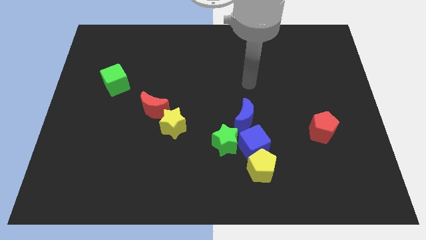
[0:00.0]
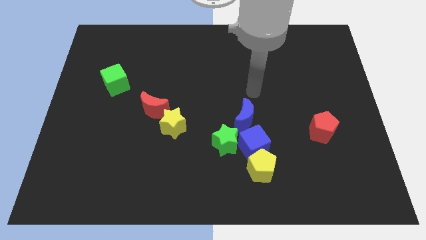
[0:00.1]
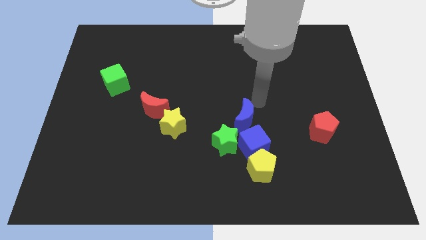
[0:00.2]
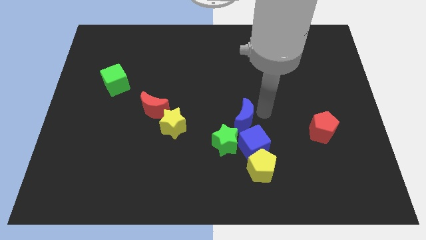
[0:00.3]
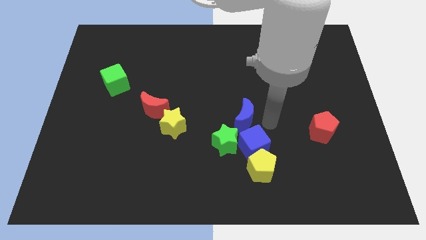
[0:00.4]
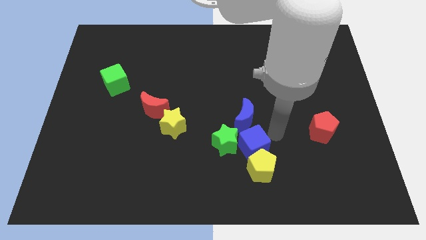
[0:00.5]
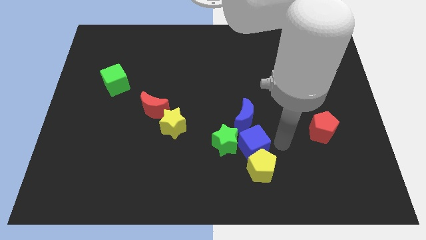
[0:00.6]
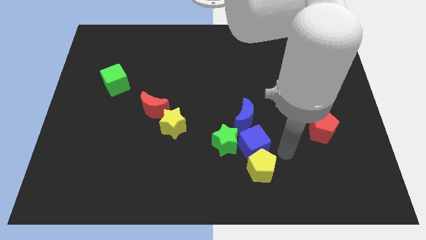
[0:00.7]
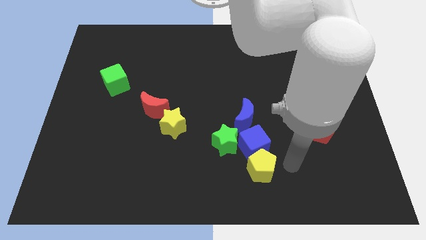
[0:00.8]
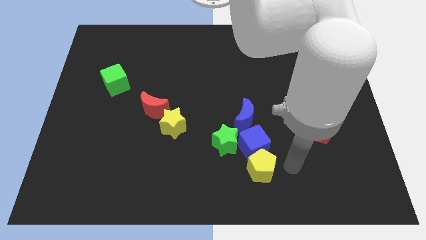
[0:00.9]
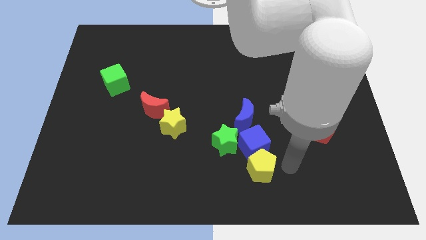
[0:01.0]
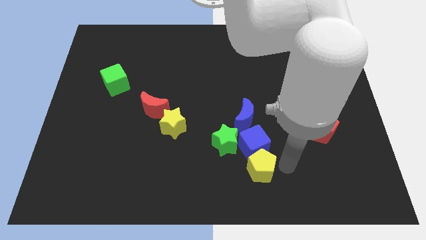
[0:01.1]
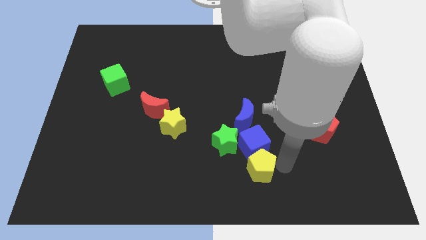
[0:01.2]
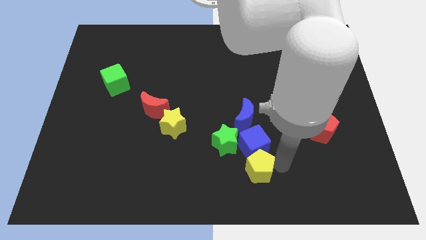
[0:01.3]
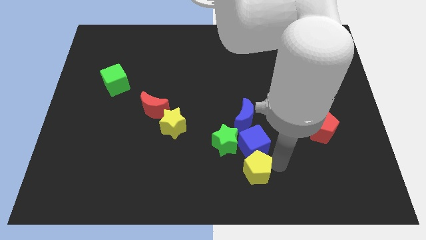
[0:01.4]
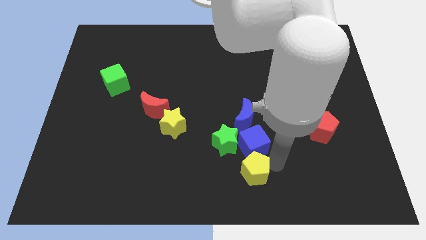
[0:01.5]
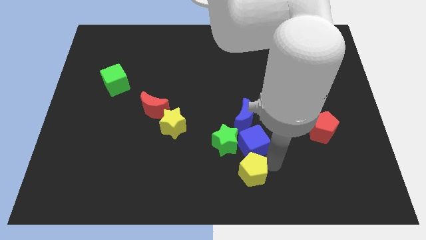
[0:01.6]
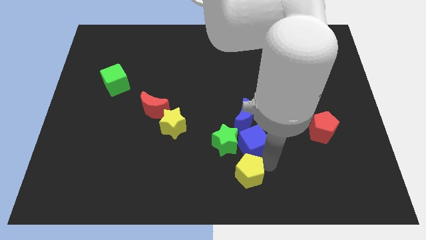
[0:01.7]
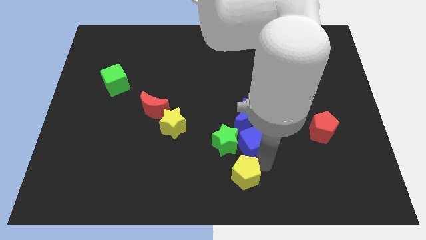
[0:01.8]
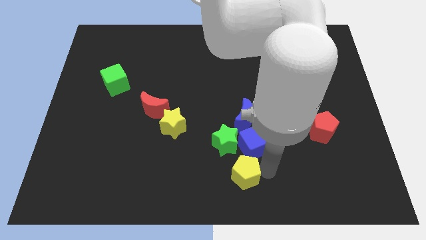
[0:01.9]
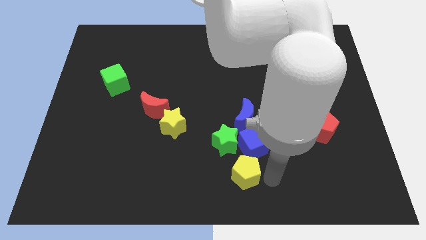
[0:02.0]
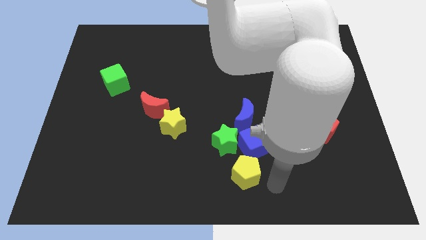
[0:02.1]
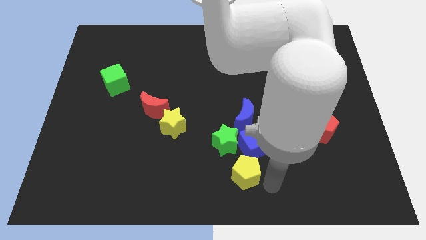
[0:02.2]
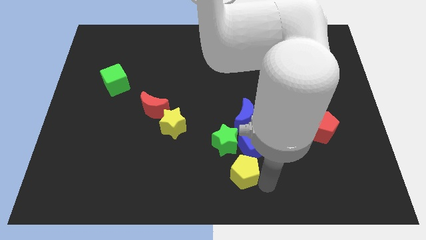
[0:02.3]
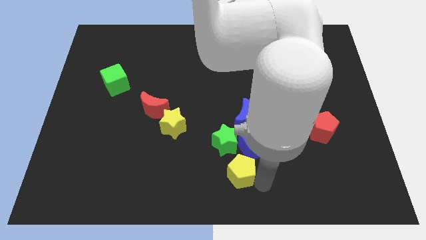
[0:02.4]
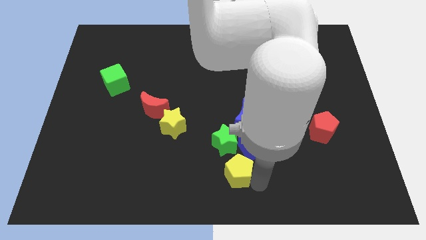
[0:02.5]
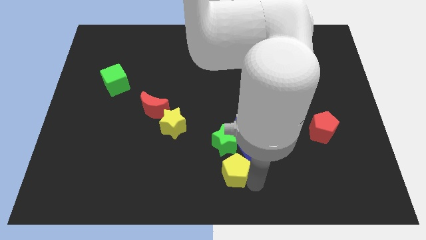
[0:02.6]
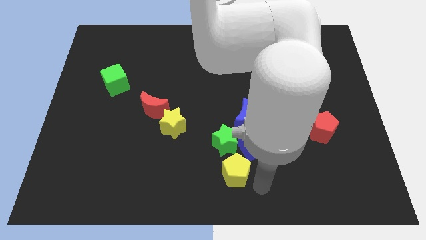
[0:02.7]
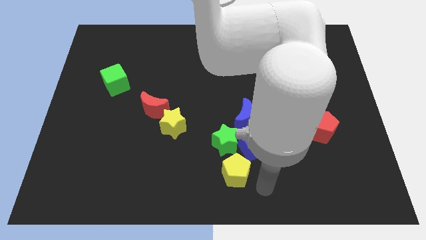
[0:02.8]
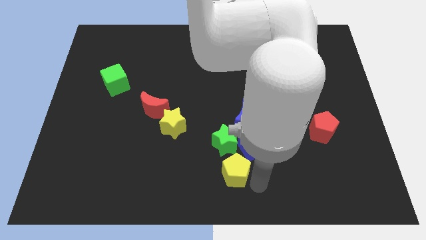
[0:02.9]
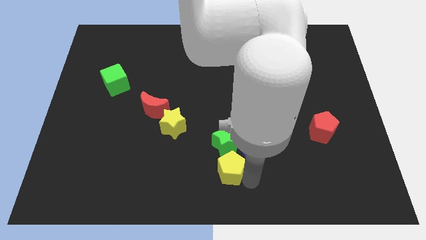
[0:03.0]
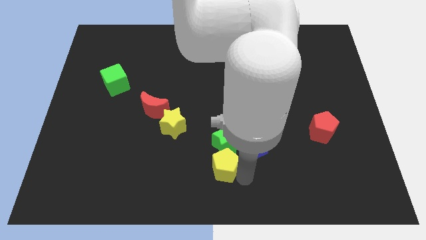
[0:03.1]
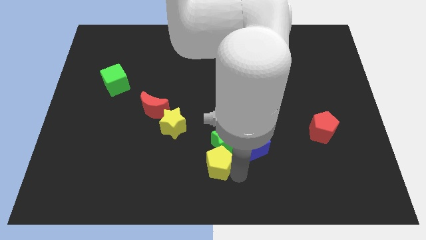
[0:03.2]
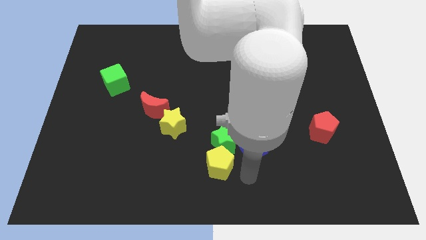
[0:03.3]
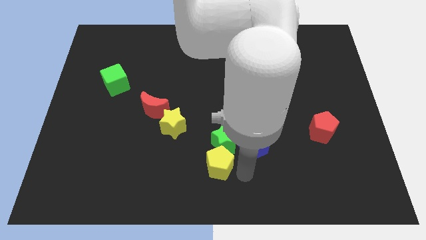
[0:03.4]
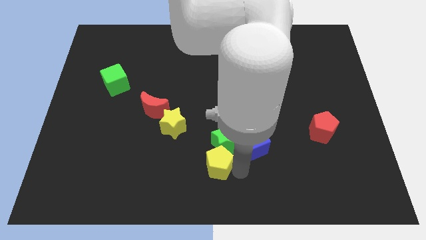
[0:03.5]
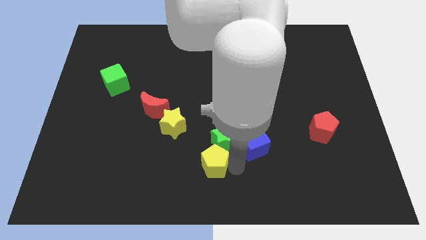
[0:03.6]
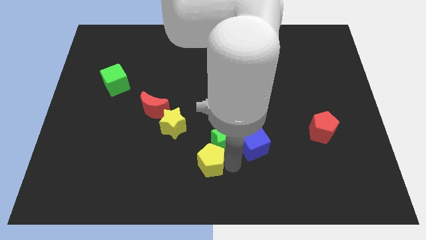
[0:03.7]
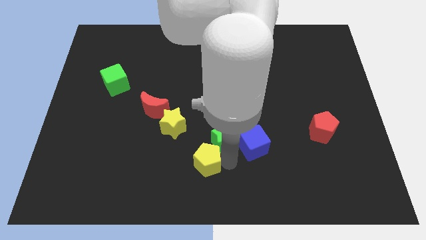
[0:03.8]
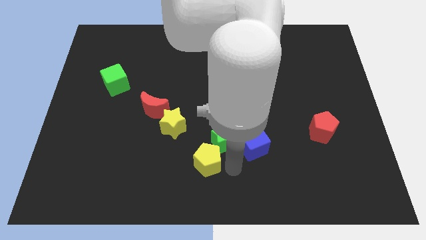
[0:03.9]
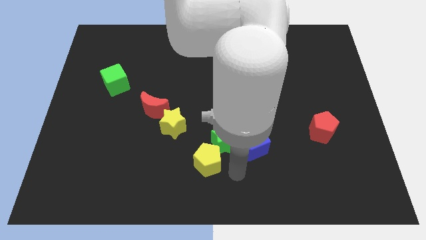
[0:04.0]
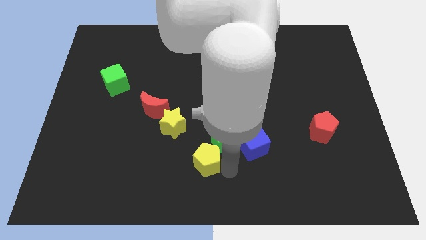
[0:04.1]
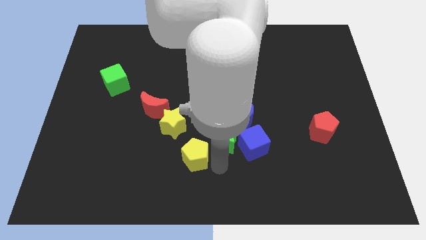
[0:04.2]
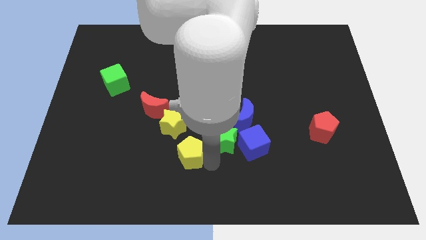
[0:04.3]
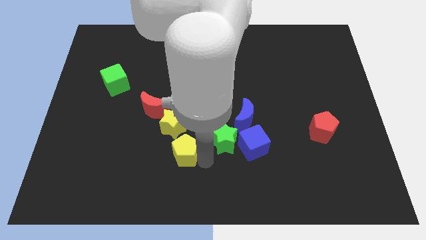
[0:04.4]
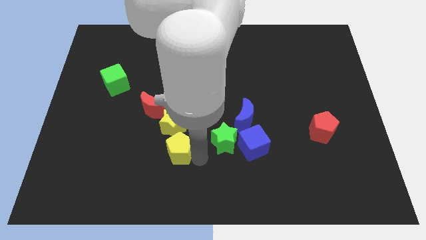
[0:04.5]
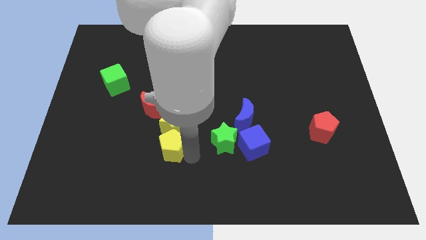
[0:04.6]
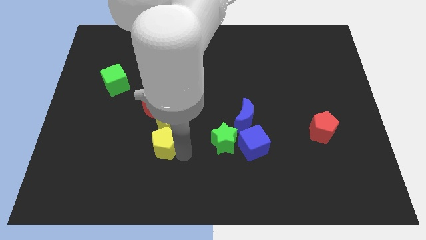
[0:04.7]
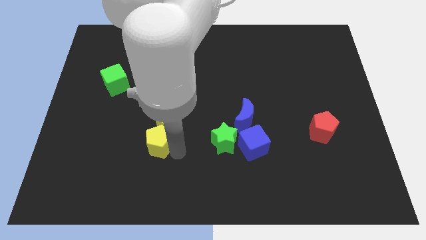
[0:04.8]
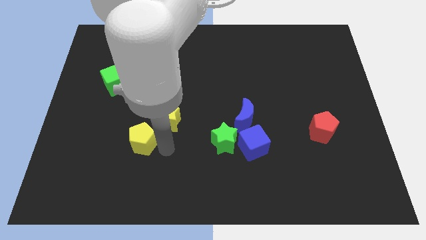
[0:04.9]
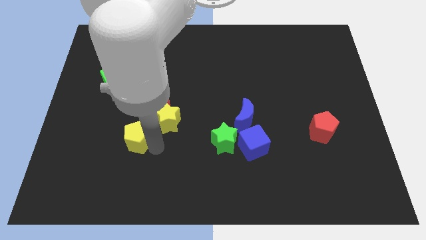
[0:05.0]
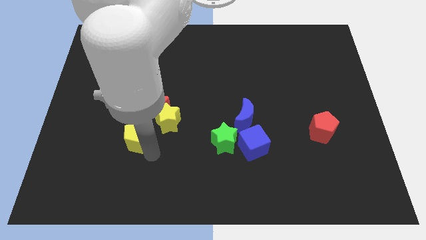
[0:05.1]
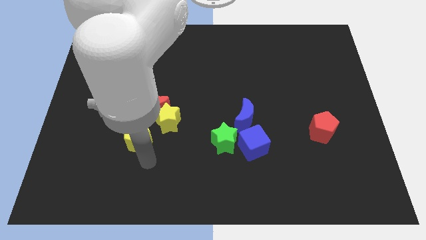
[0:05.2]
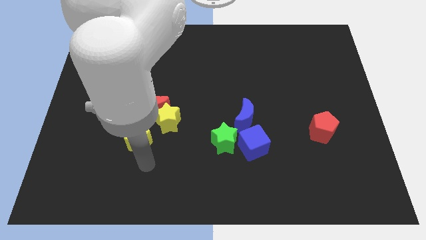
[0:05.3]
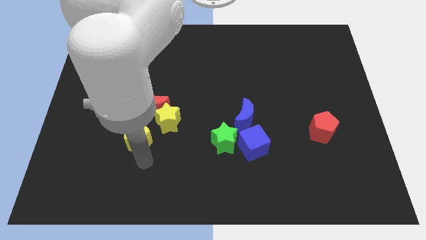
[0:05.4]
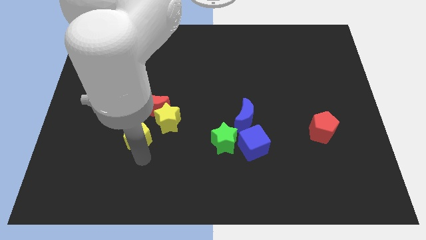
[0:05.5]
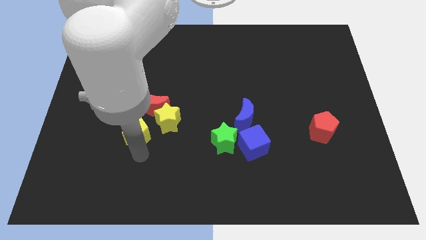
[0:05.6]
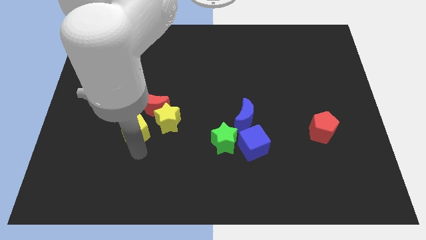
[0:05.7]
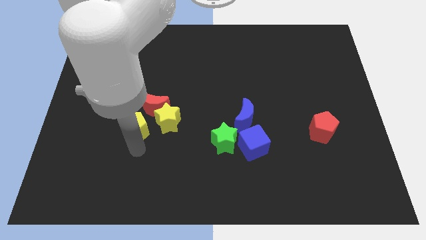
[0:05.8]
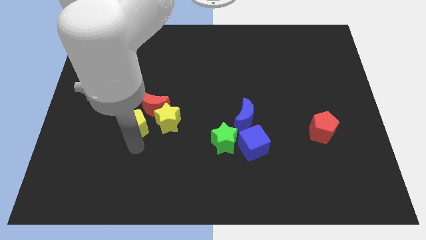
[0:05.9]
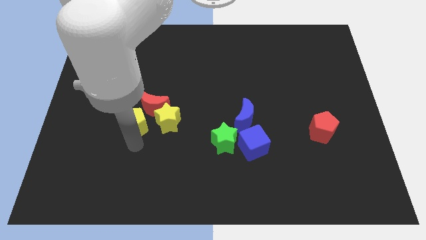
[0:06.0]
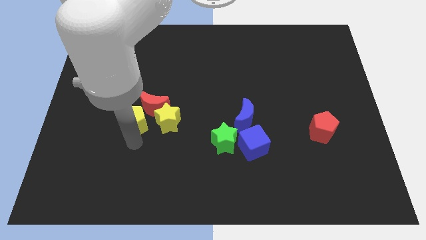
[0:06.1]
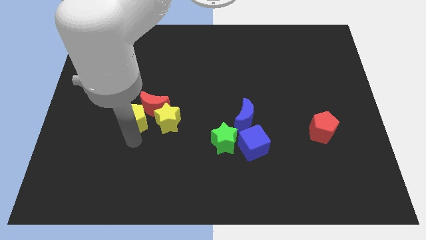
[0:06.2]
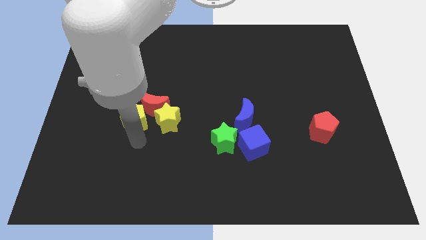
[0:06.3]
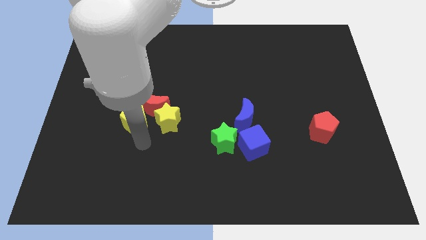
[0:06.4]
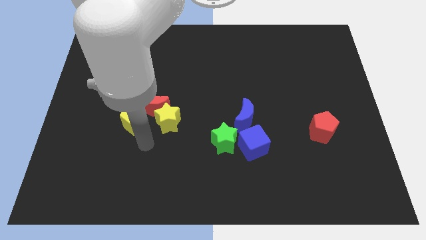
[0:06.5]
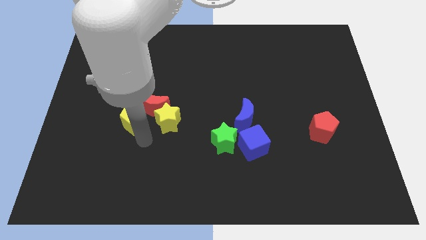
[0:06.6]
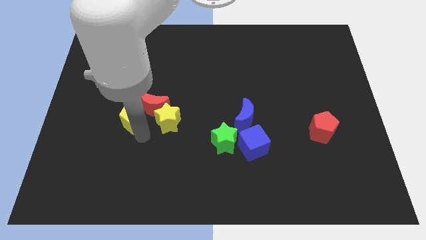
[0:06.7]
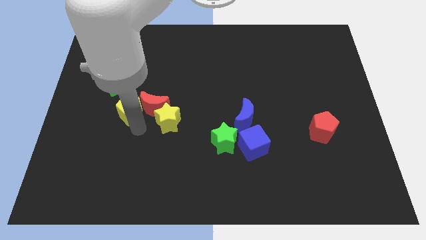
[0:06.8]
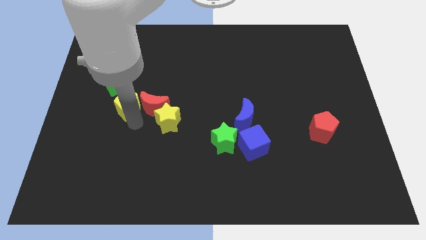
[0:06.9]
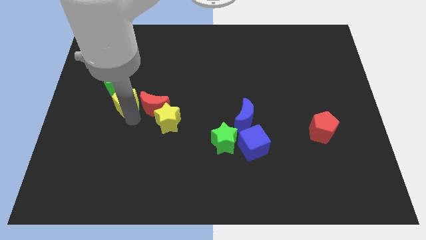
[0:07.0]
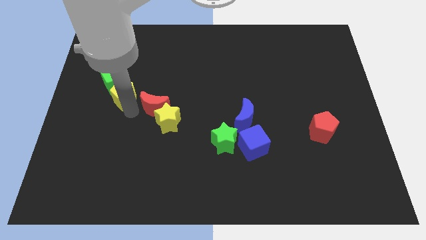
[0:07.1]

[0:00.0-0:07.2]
put the yellow pentagon close to the green cube

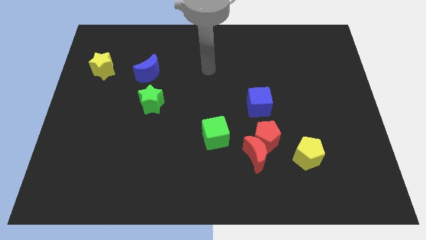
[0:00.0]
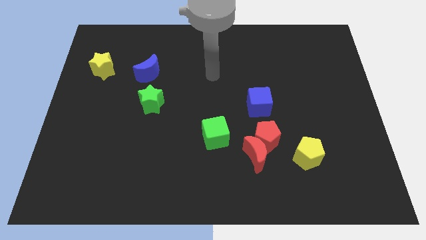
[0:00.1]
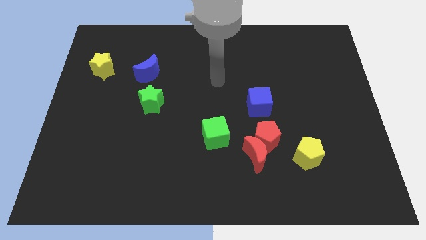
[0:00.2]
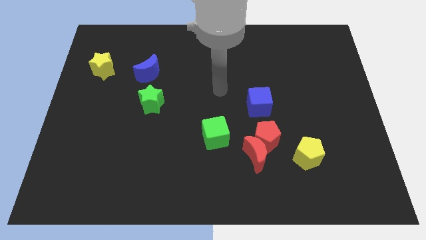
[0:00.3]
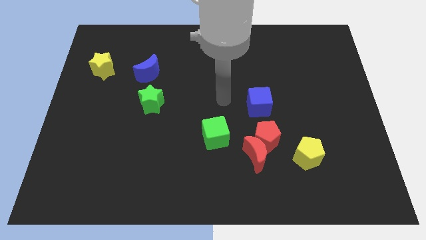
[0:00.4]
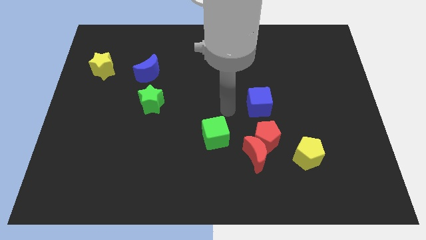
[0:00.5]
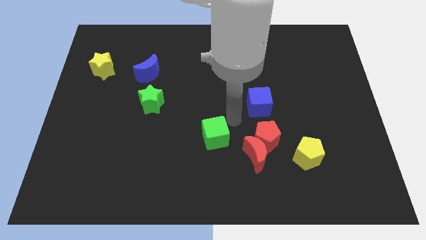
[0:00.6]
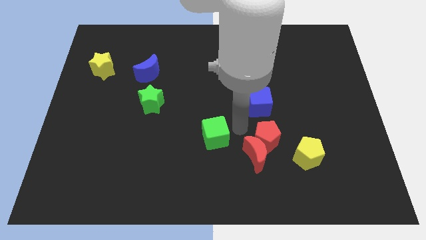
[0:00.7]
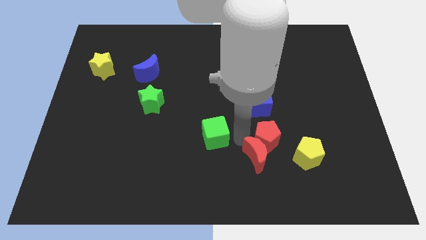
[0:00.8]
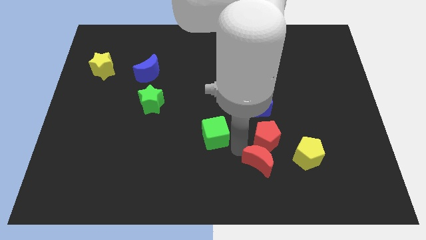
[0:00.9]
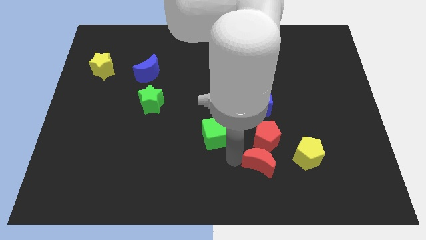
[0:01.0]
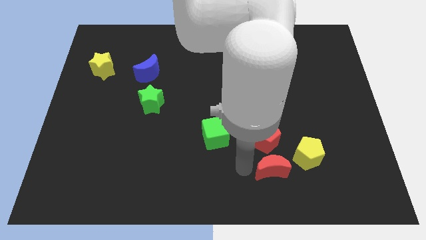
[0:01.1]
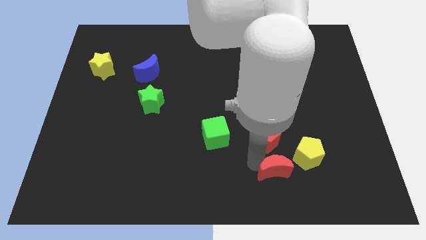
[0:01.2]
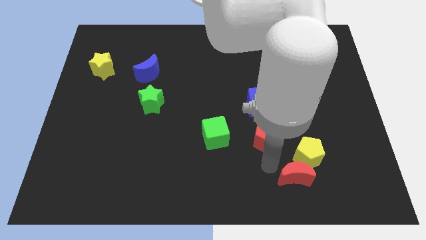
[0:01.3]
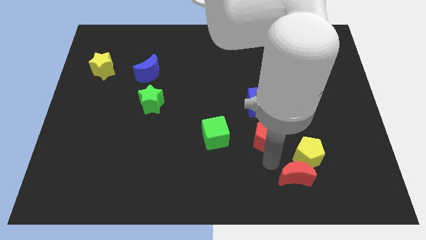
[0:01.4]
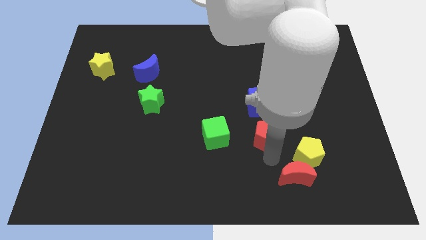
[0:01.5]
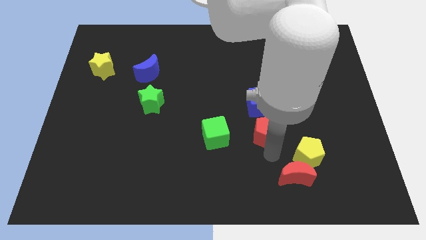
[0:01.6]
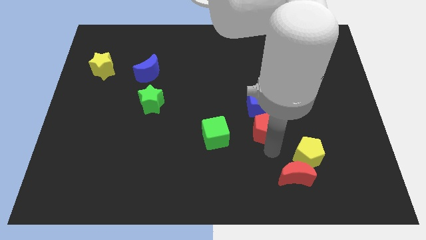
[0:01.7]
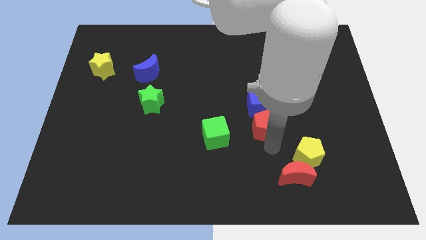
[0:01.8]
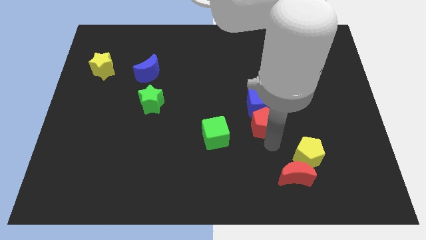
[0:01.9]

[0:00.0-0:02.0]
slide the red pentagon towards the blue cube
